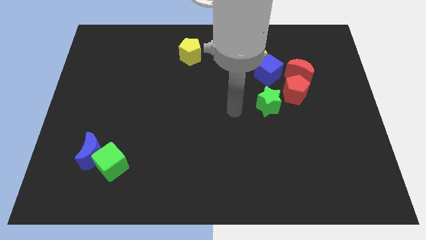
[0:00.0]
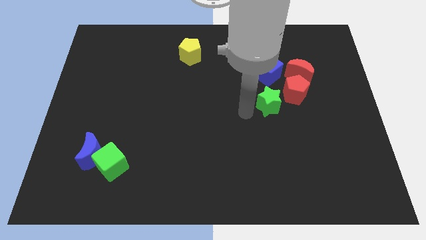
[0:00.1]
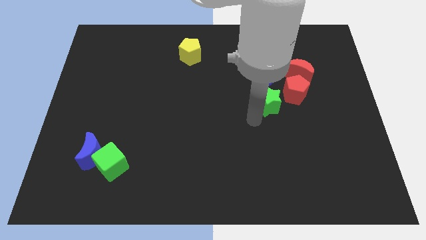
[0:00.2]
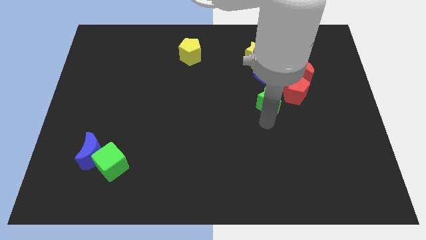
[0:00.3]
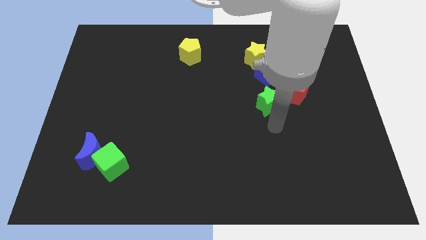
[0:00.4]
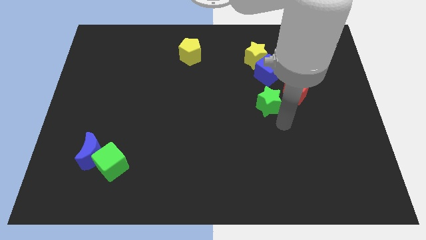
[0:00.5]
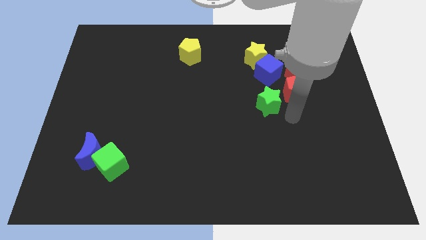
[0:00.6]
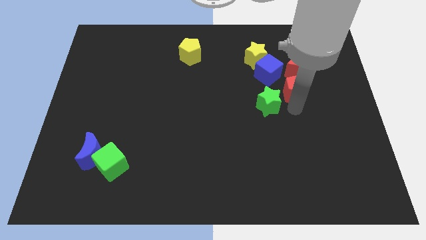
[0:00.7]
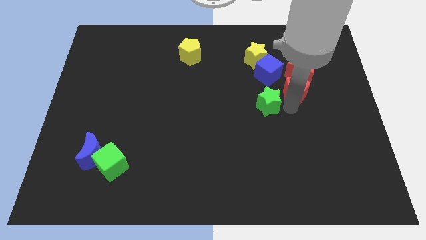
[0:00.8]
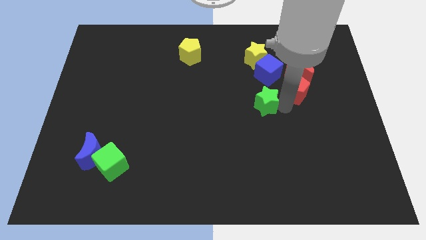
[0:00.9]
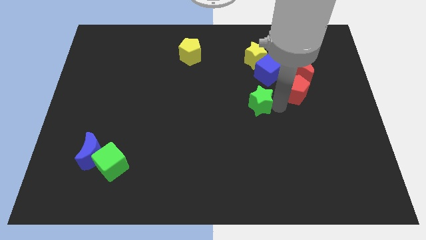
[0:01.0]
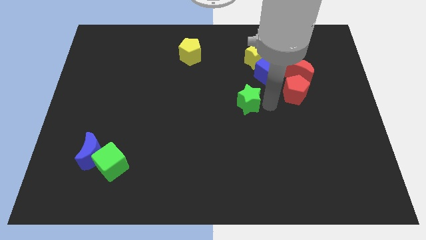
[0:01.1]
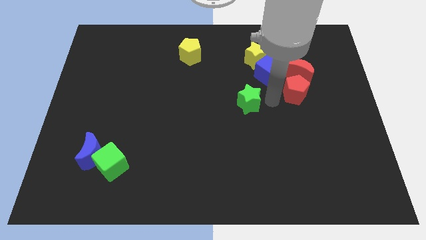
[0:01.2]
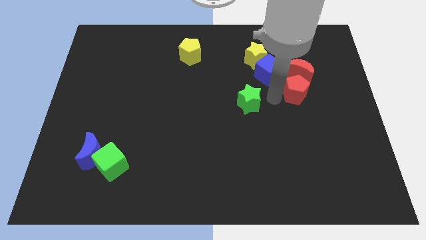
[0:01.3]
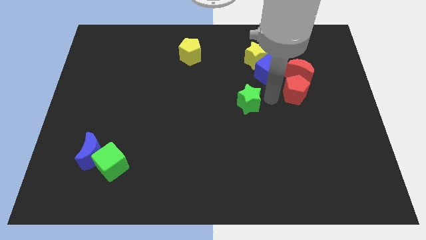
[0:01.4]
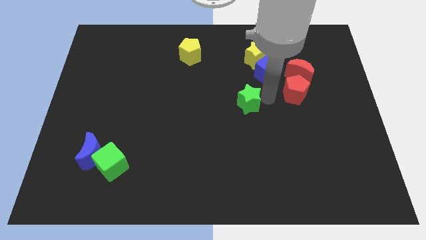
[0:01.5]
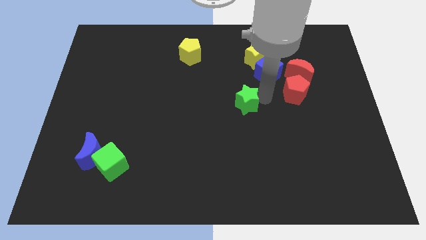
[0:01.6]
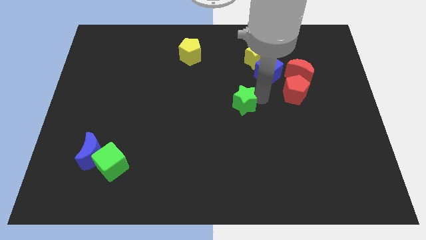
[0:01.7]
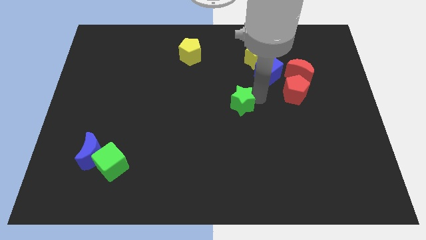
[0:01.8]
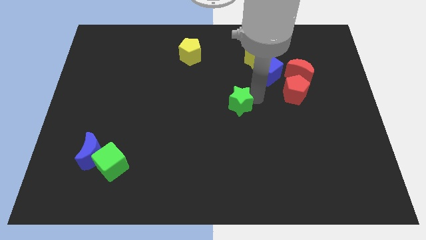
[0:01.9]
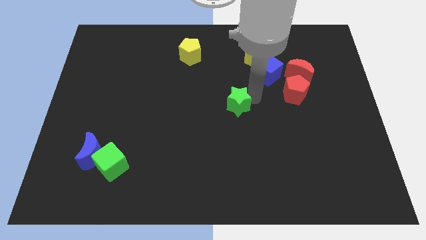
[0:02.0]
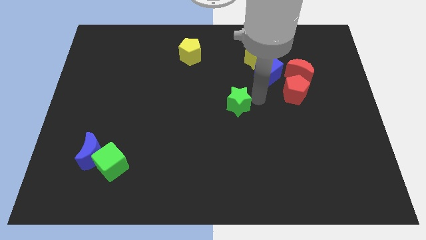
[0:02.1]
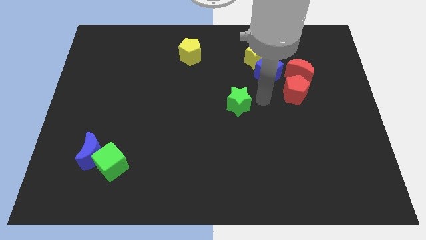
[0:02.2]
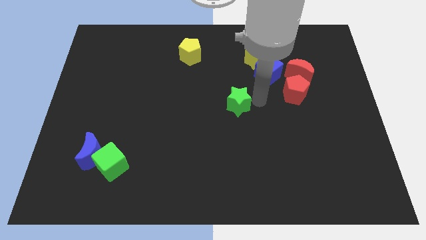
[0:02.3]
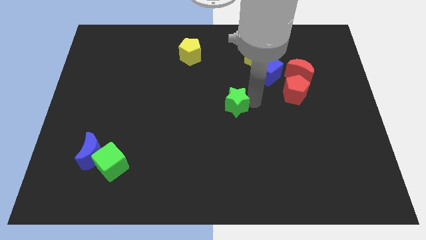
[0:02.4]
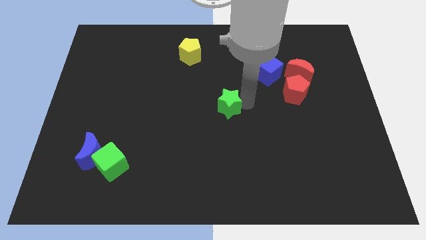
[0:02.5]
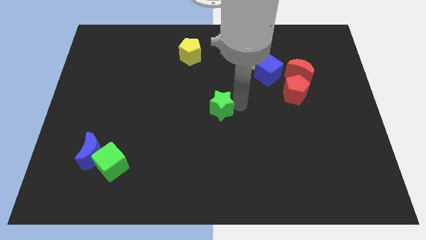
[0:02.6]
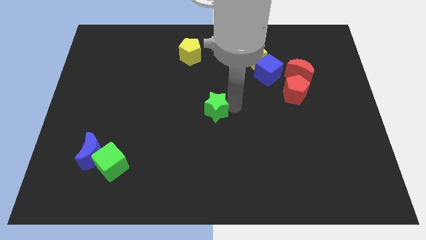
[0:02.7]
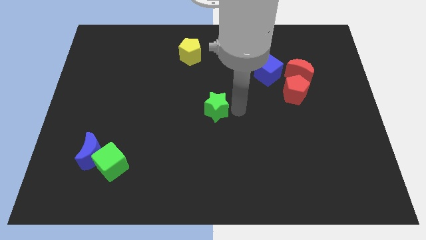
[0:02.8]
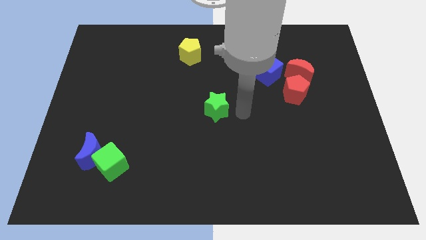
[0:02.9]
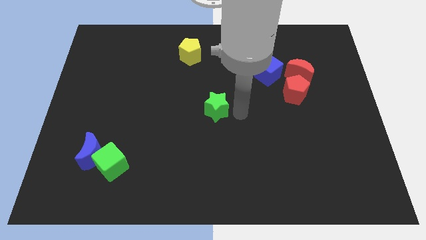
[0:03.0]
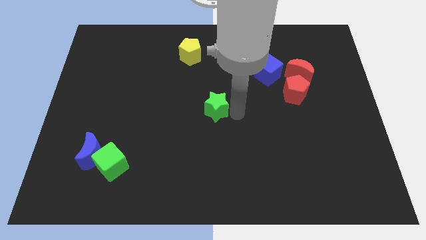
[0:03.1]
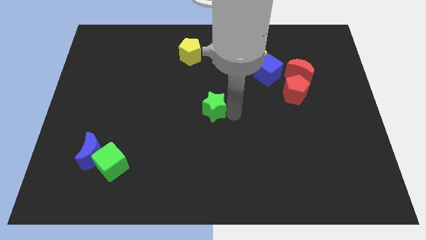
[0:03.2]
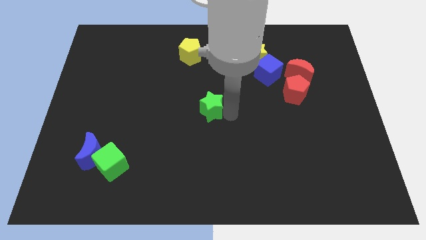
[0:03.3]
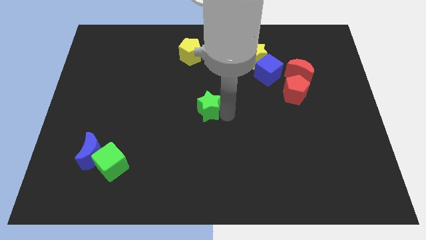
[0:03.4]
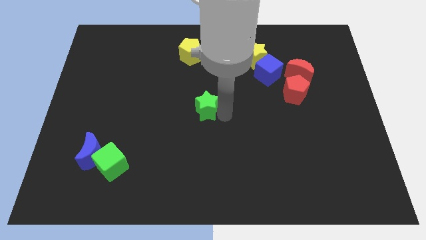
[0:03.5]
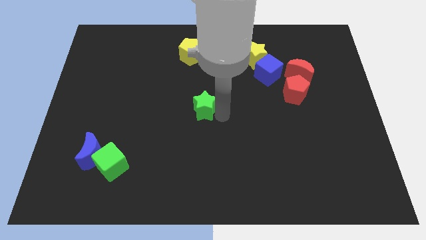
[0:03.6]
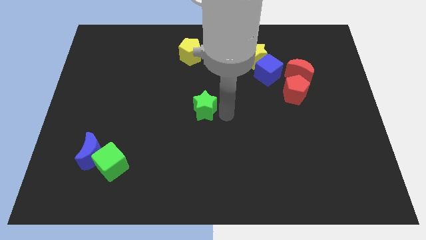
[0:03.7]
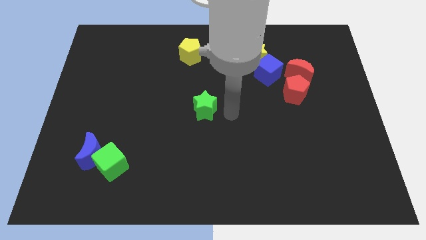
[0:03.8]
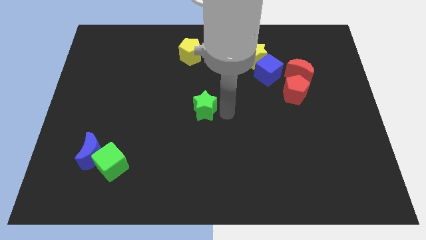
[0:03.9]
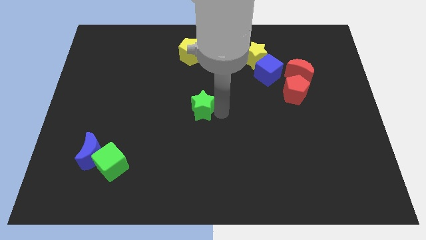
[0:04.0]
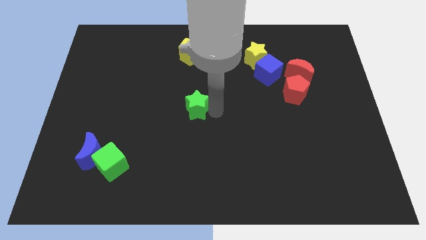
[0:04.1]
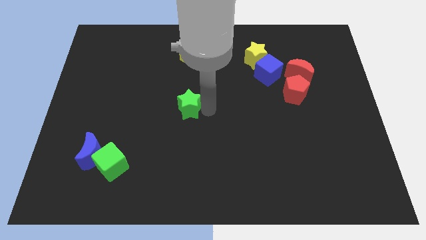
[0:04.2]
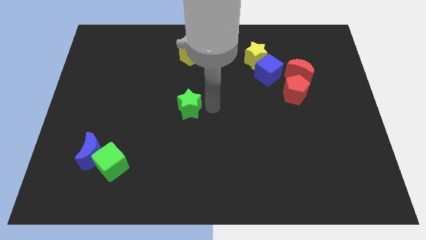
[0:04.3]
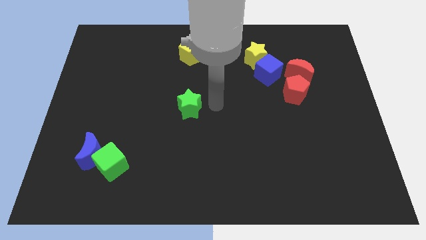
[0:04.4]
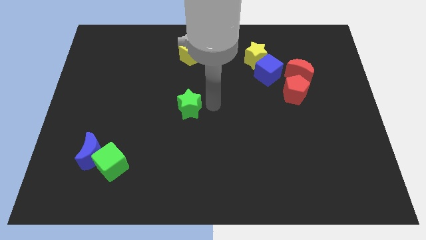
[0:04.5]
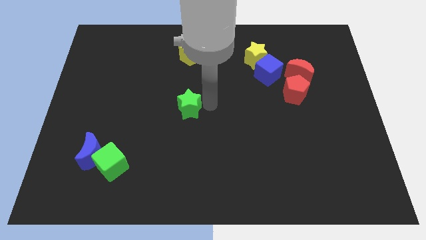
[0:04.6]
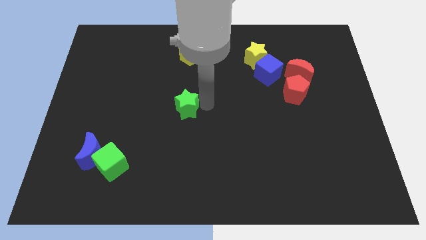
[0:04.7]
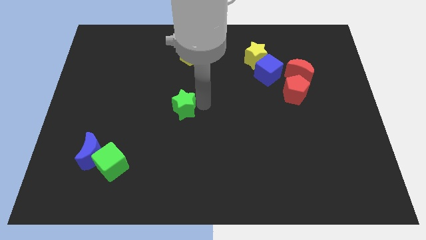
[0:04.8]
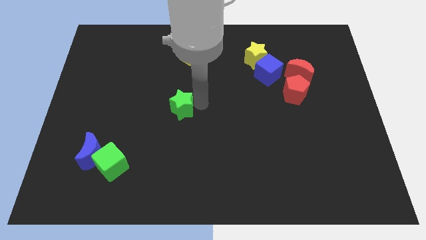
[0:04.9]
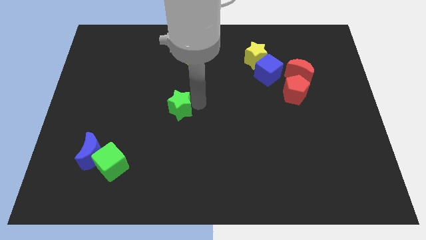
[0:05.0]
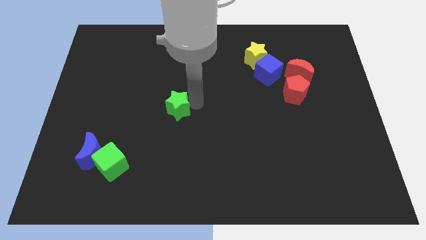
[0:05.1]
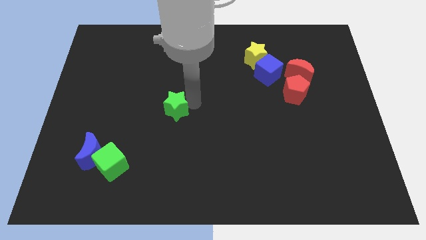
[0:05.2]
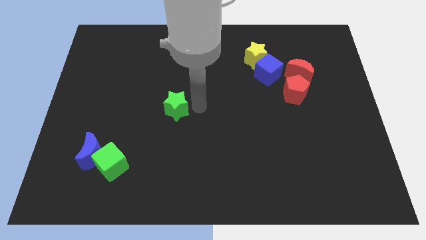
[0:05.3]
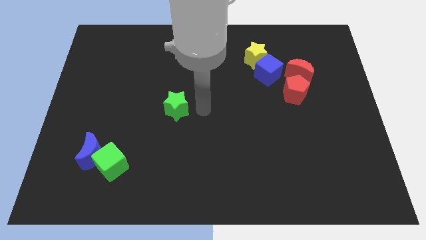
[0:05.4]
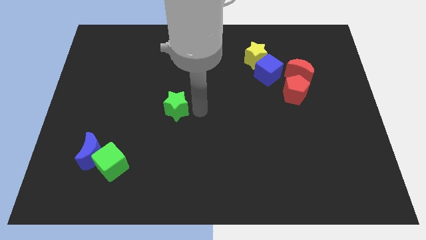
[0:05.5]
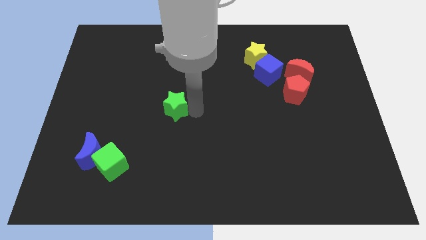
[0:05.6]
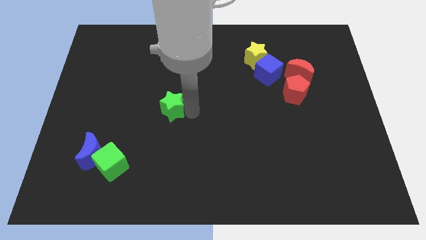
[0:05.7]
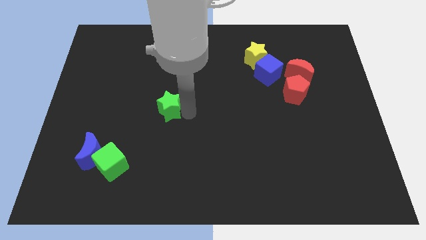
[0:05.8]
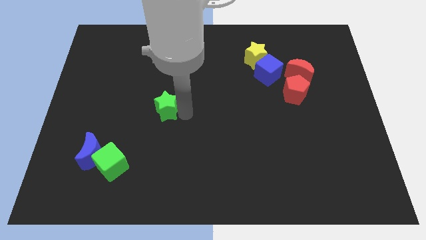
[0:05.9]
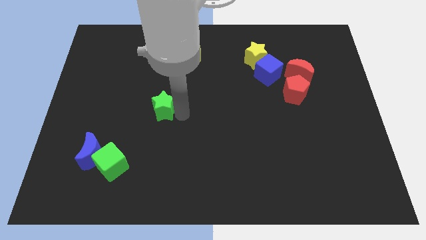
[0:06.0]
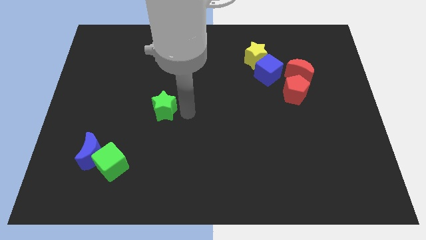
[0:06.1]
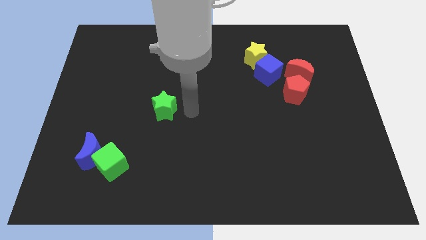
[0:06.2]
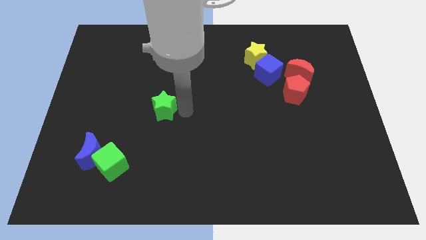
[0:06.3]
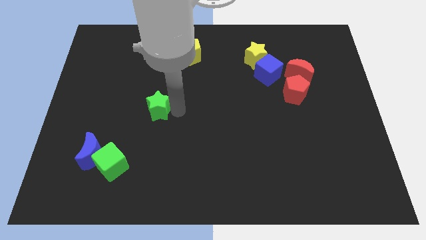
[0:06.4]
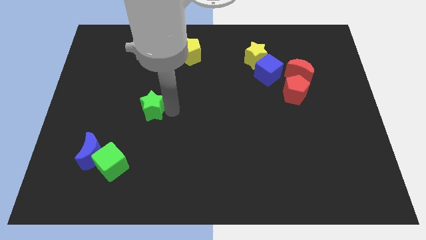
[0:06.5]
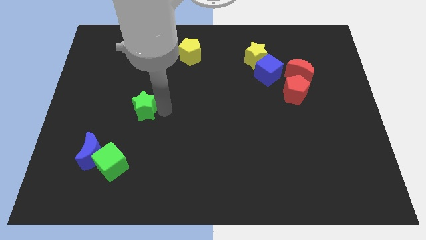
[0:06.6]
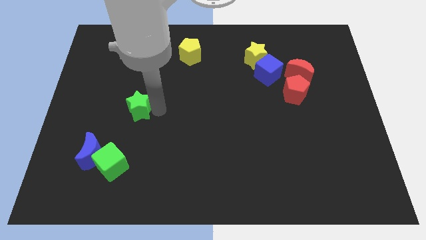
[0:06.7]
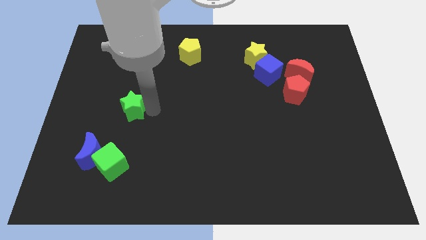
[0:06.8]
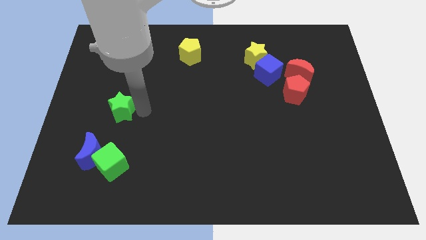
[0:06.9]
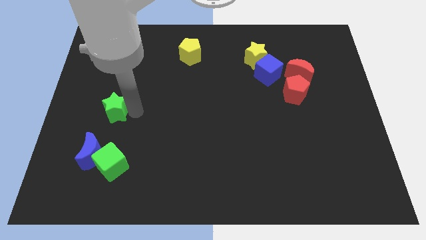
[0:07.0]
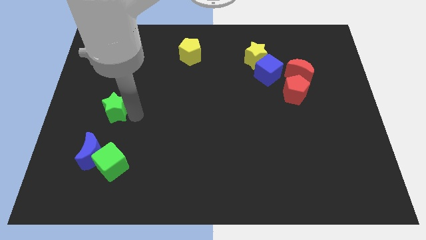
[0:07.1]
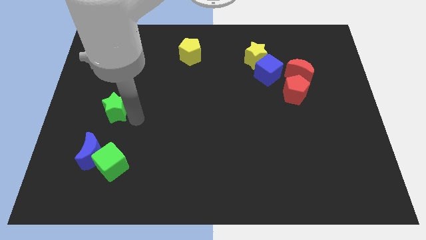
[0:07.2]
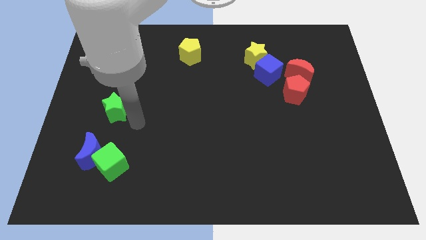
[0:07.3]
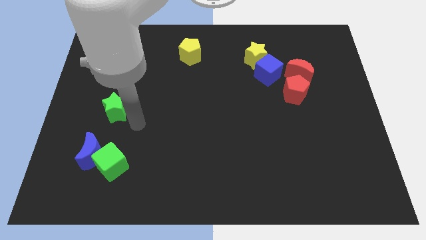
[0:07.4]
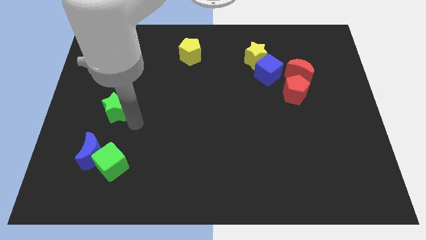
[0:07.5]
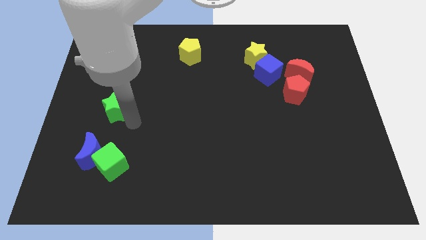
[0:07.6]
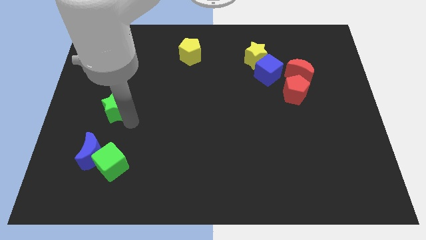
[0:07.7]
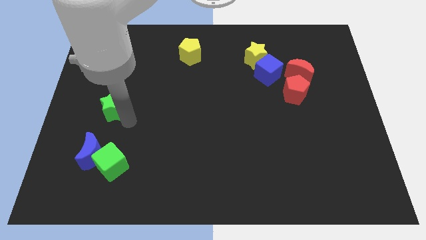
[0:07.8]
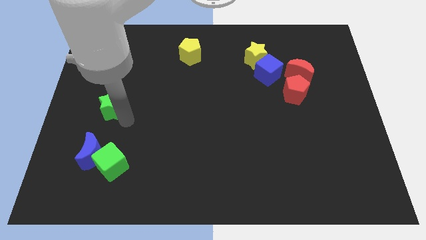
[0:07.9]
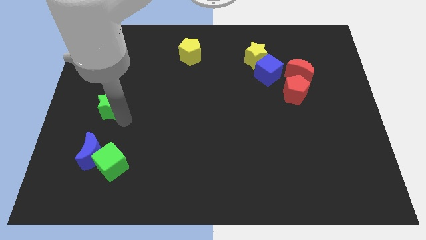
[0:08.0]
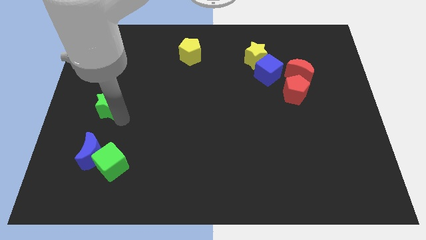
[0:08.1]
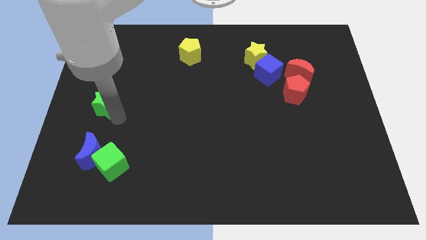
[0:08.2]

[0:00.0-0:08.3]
push the green star to the left side
